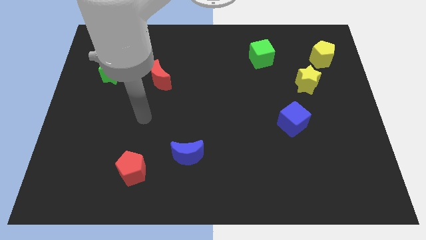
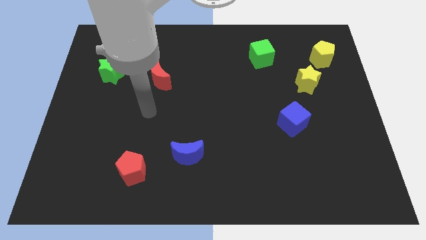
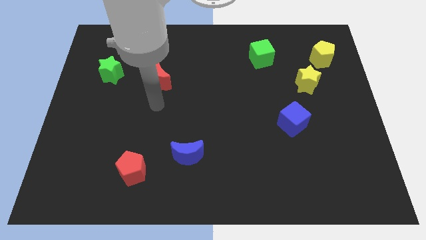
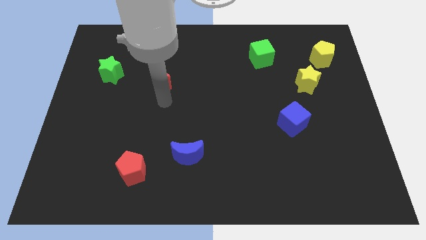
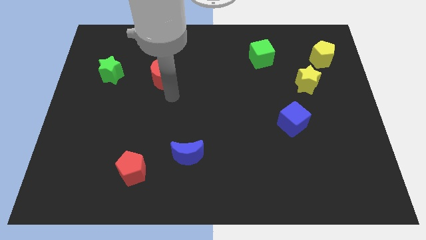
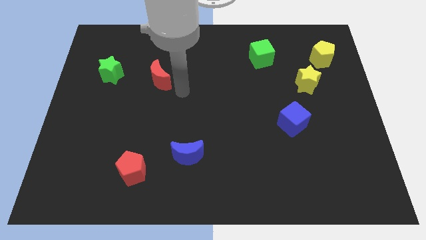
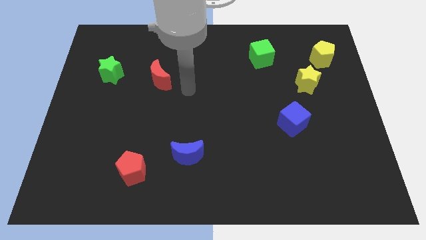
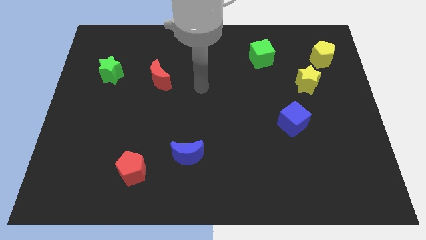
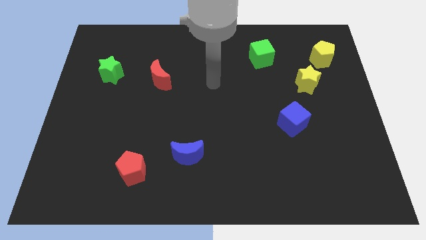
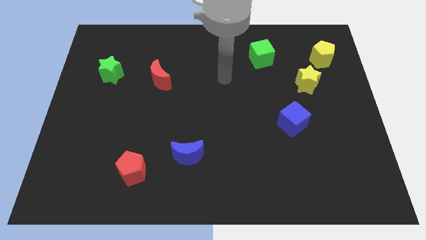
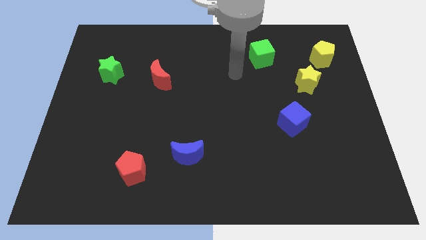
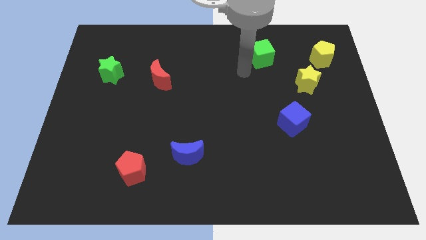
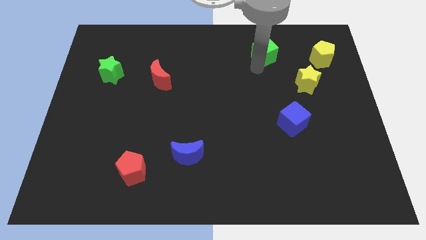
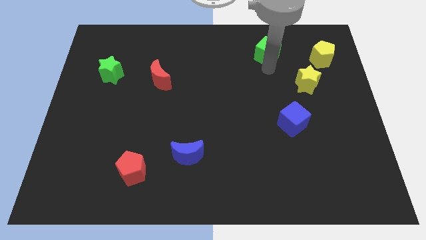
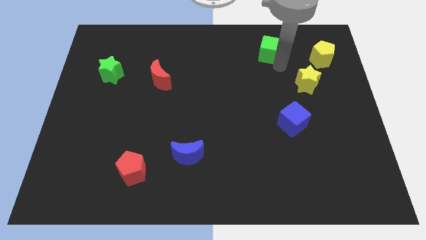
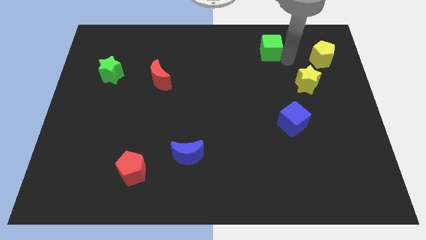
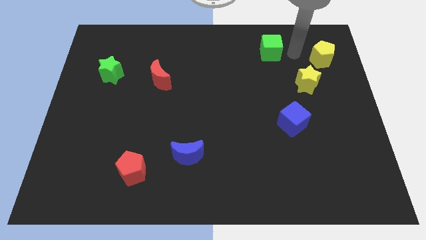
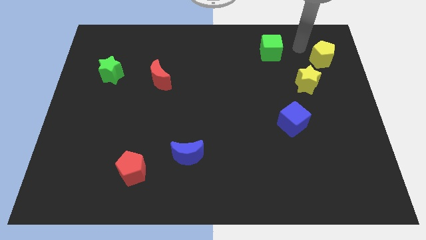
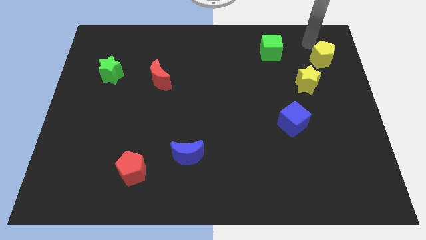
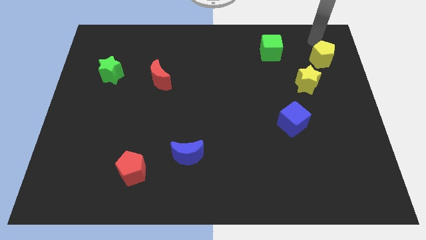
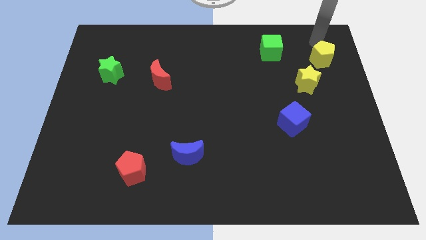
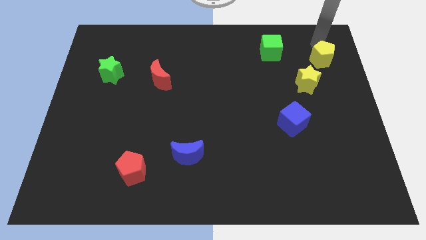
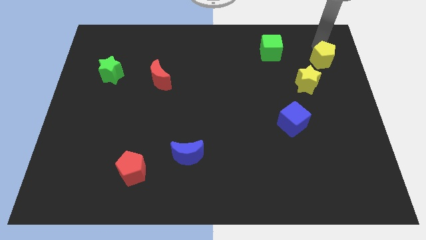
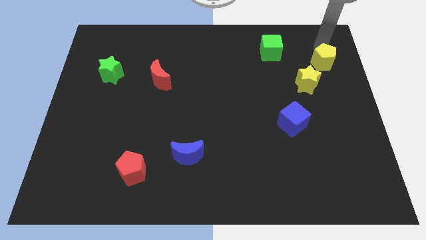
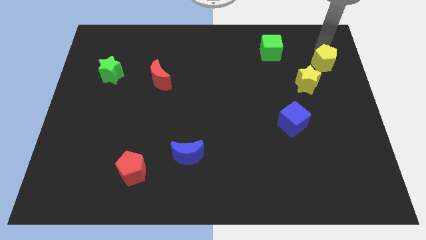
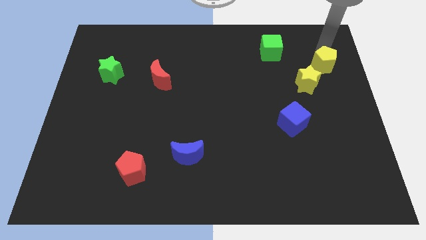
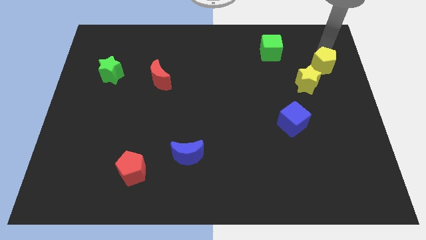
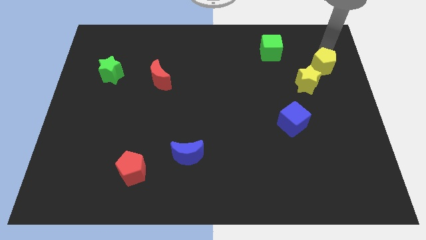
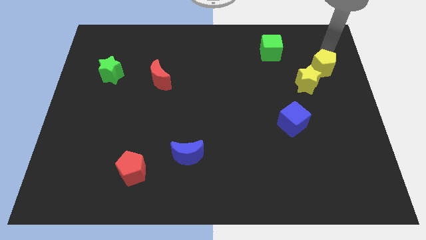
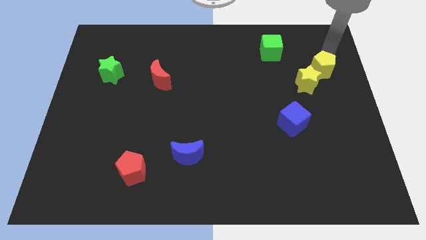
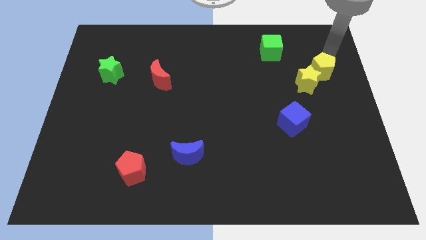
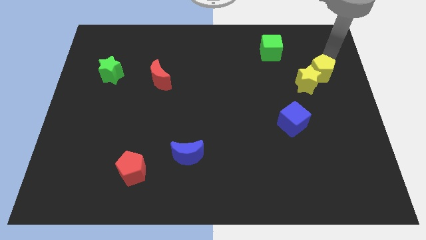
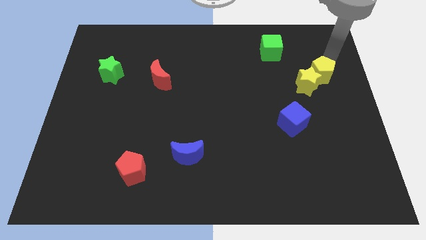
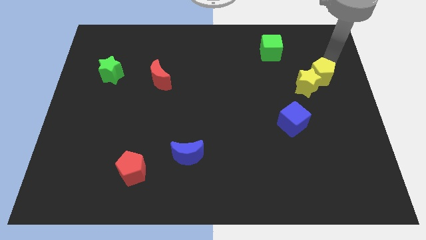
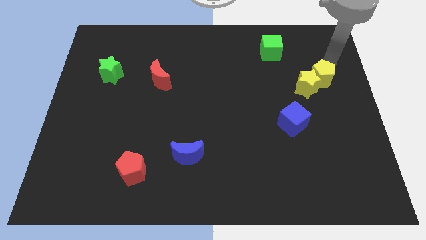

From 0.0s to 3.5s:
push the yellow pentagon slightly down

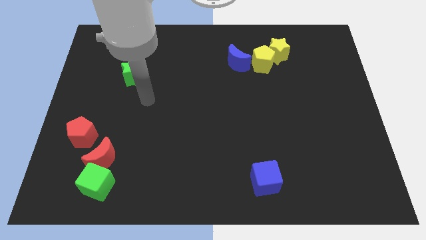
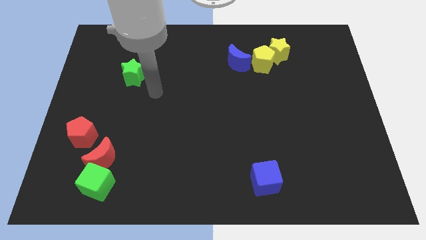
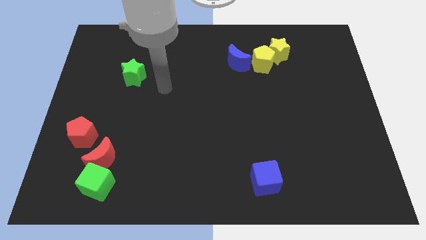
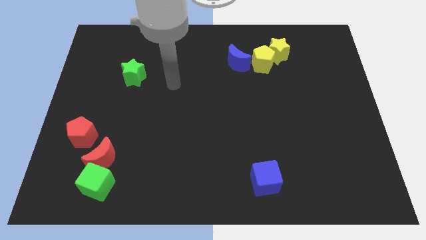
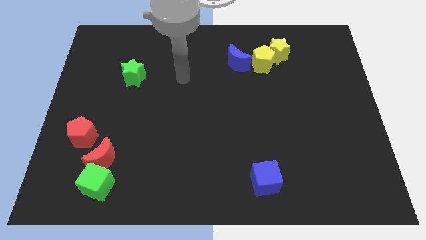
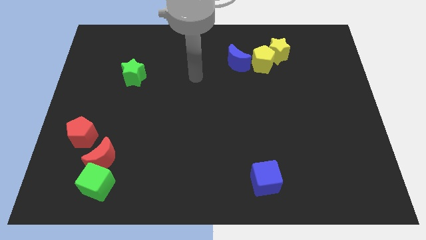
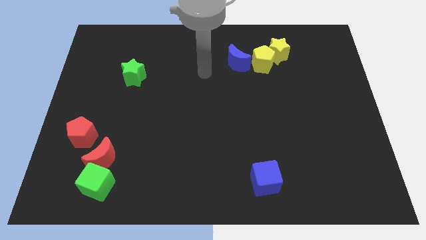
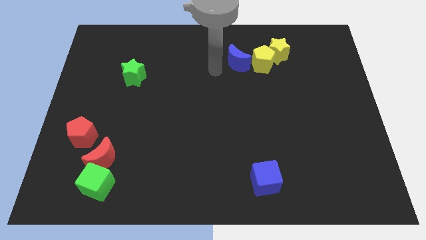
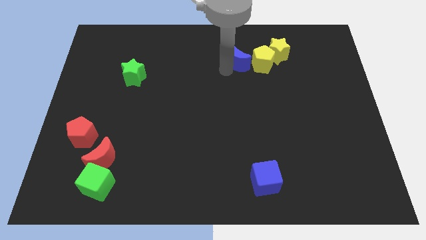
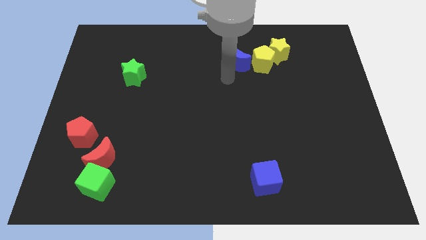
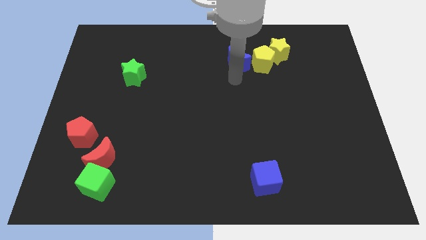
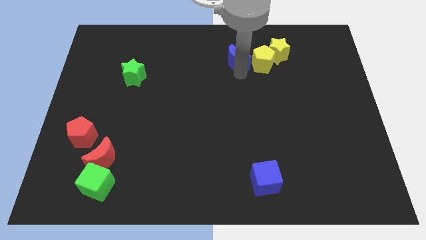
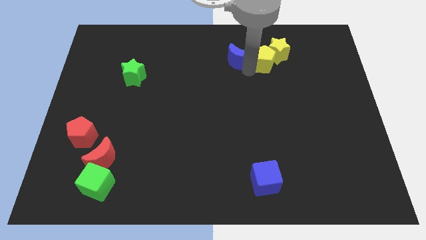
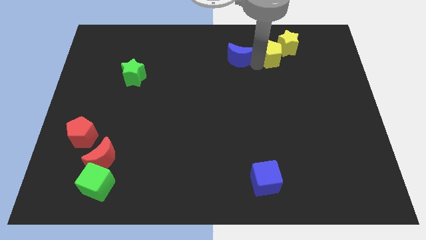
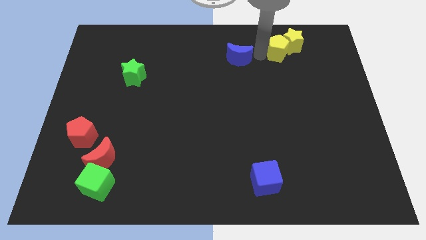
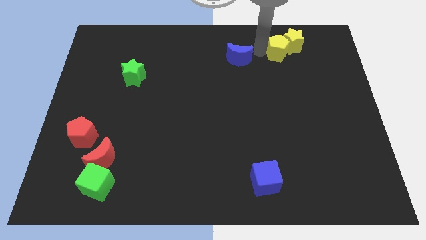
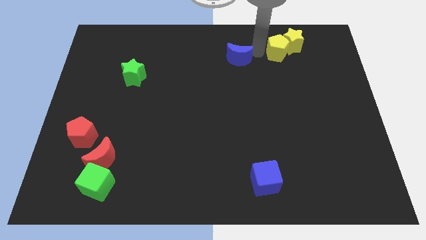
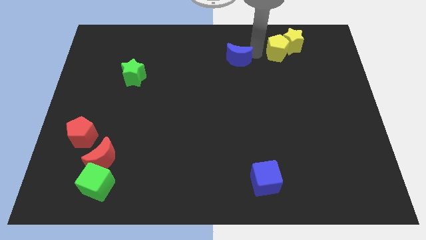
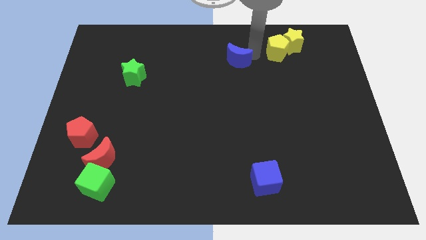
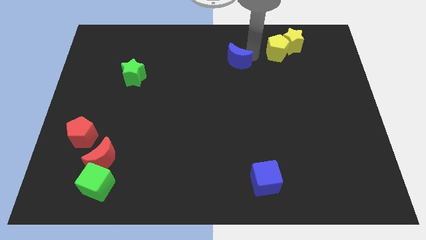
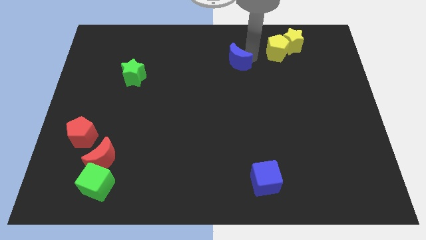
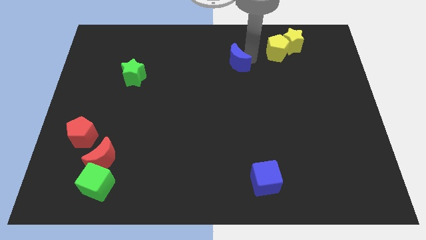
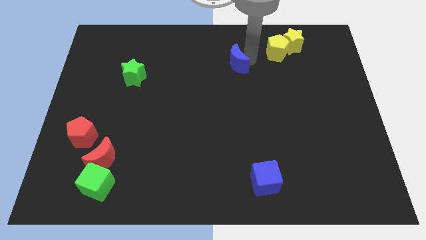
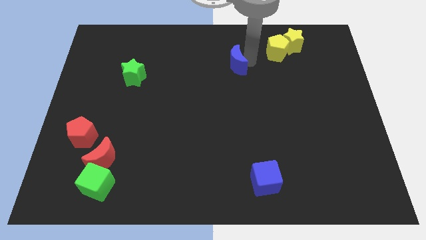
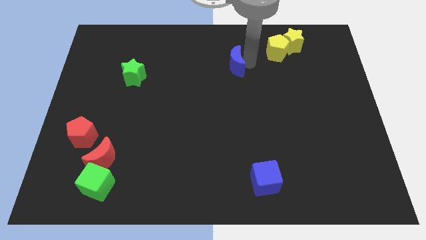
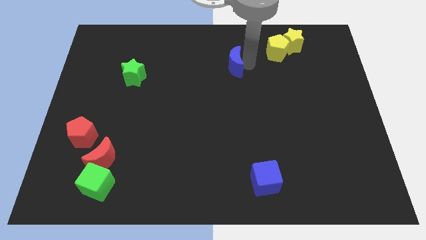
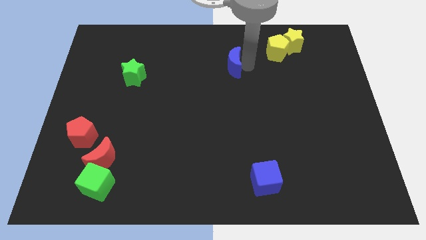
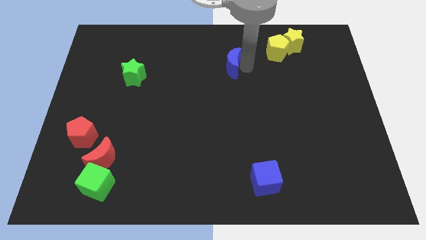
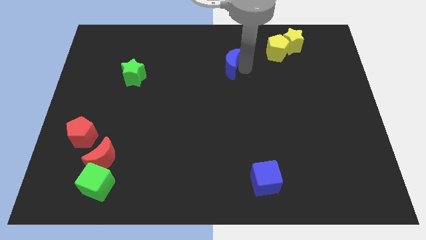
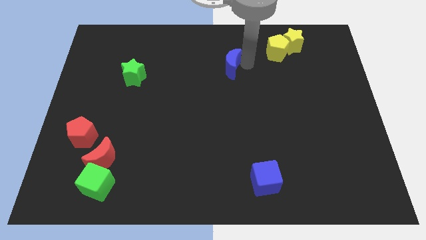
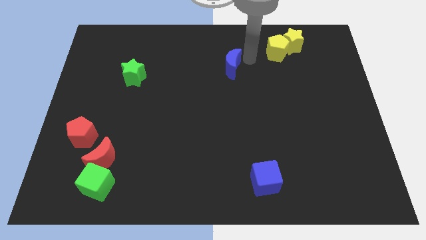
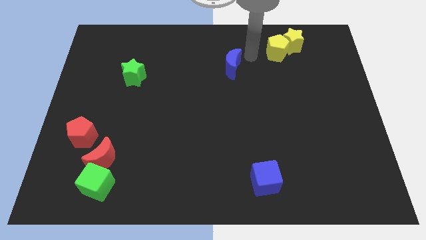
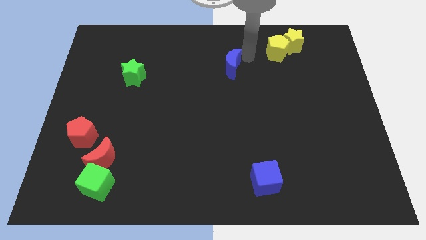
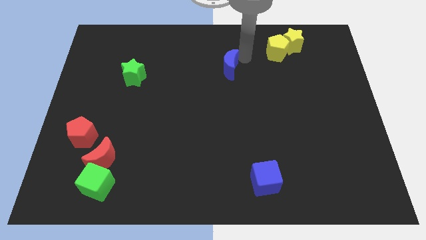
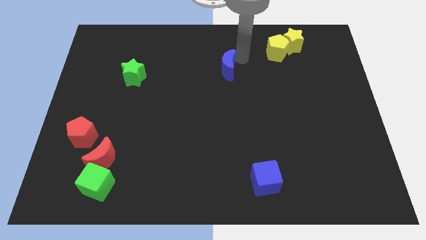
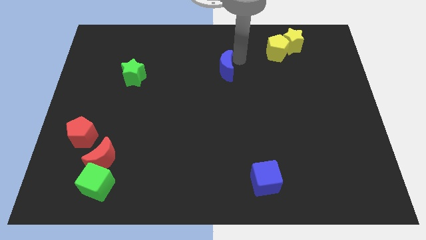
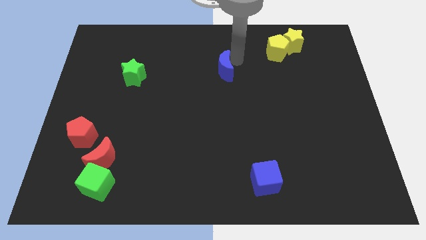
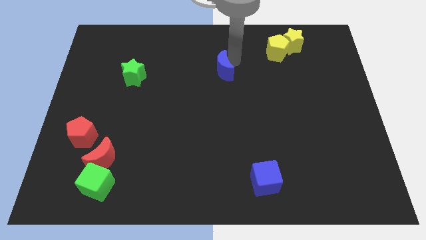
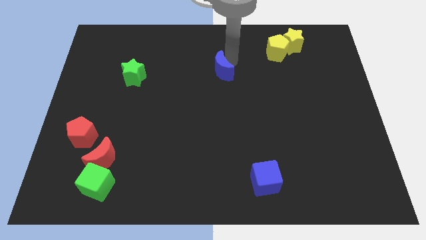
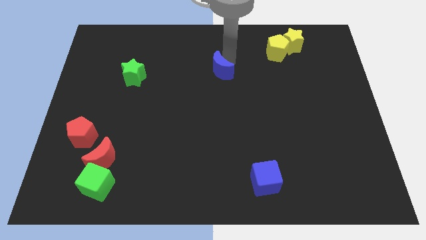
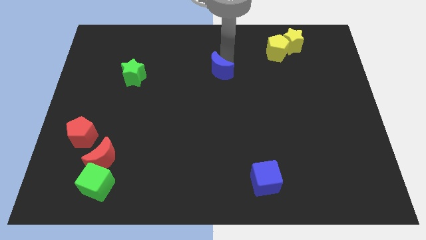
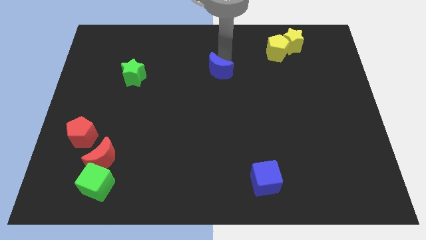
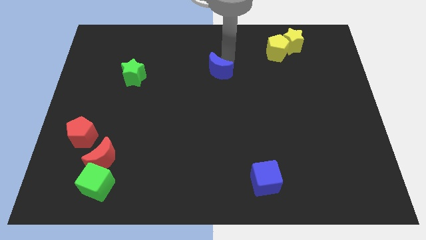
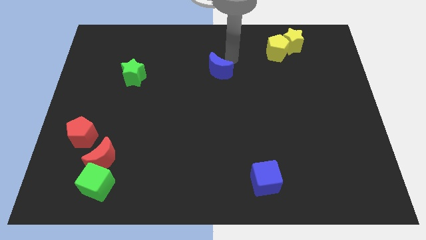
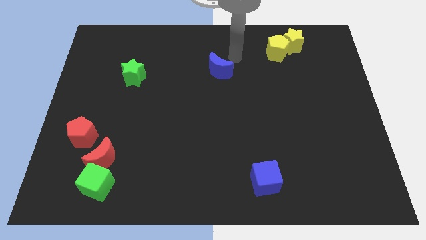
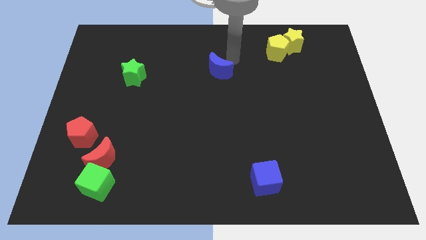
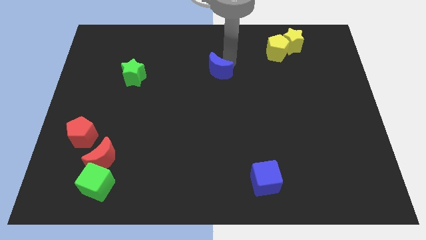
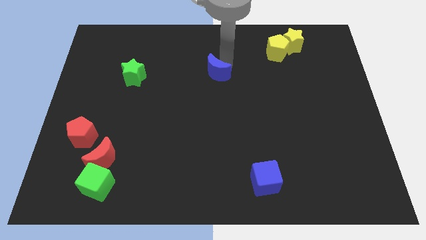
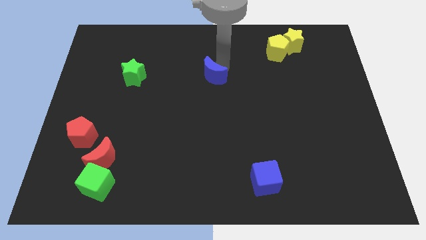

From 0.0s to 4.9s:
slide the blue moon a little bit diagonally downwards and left
